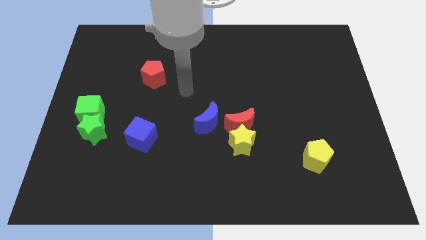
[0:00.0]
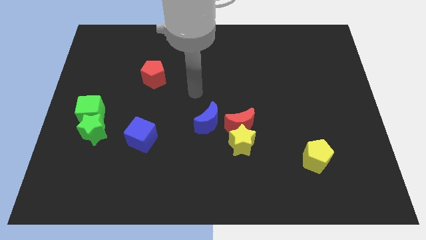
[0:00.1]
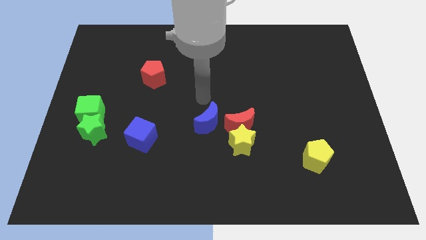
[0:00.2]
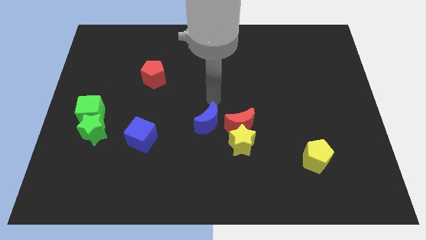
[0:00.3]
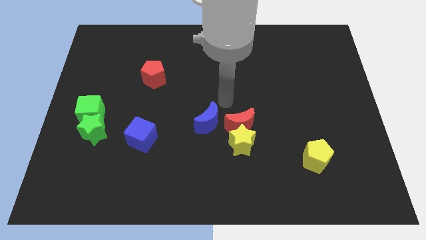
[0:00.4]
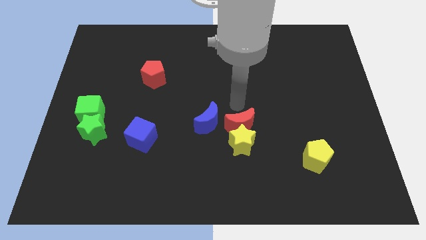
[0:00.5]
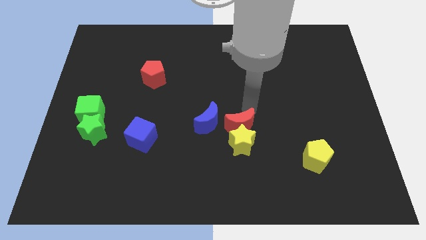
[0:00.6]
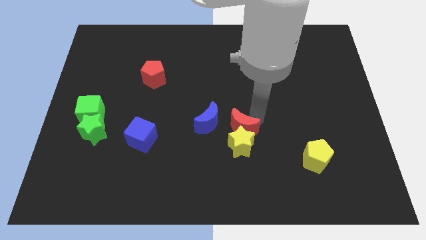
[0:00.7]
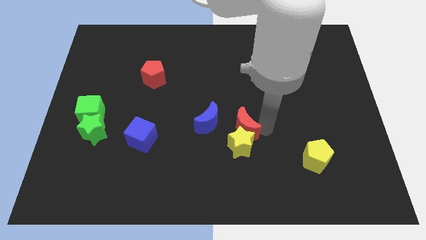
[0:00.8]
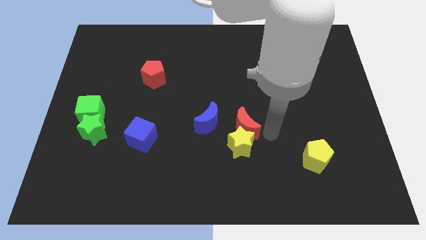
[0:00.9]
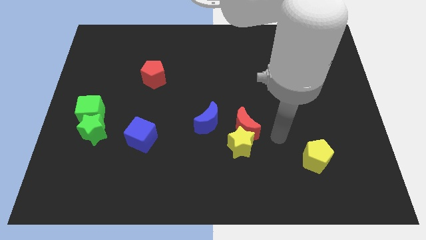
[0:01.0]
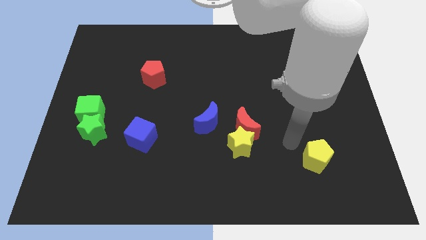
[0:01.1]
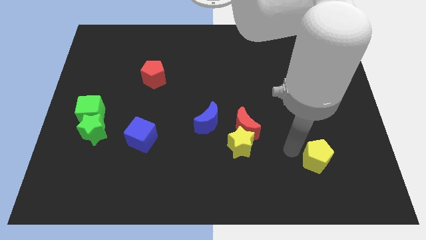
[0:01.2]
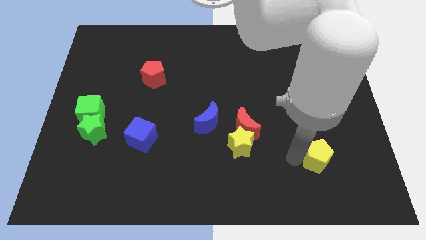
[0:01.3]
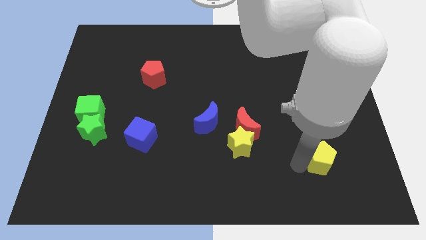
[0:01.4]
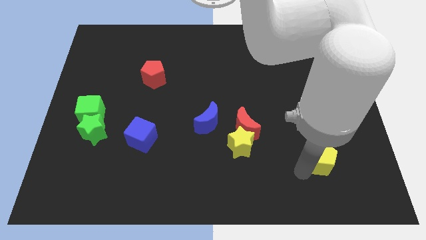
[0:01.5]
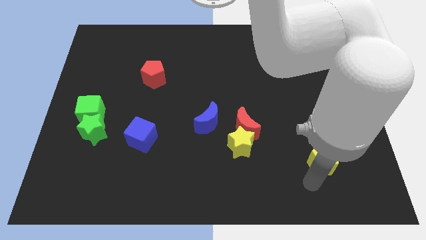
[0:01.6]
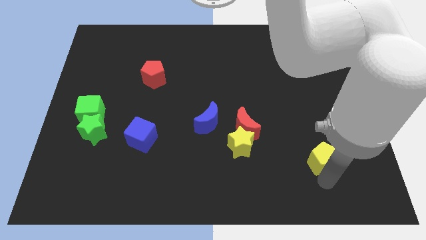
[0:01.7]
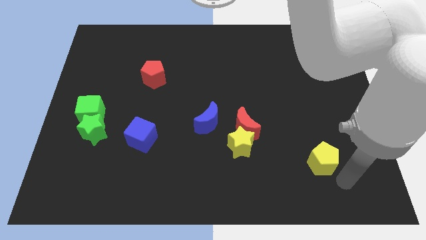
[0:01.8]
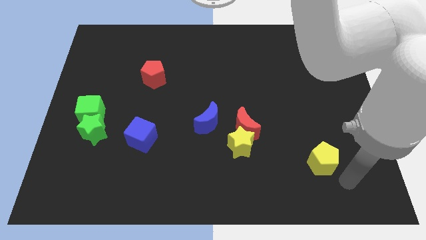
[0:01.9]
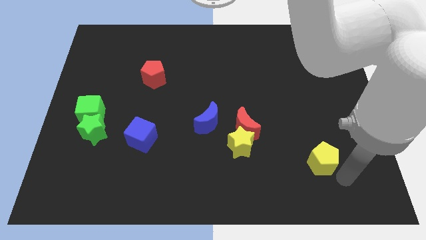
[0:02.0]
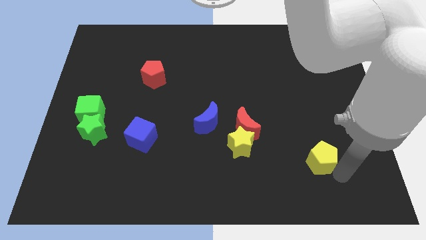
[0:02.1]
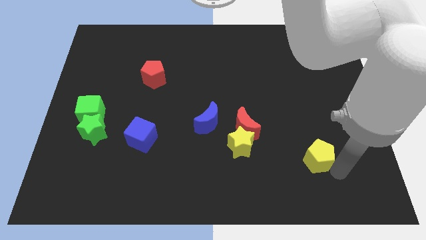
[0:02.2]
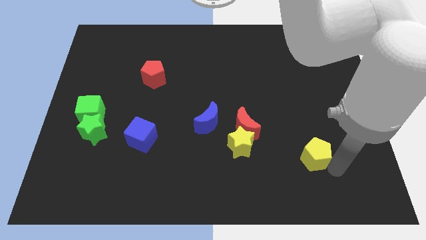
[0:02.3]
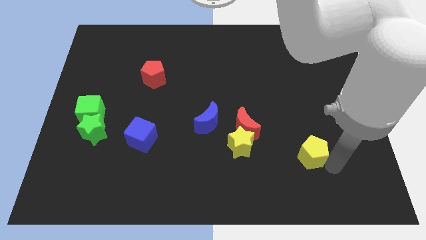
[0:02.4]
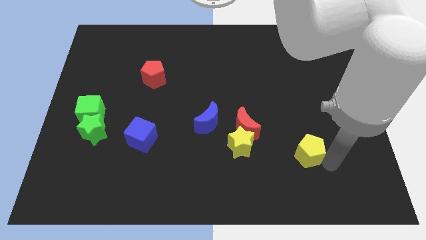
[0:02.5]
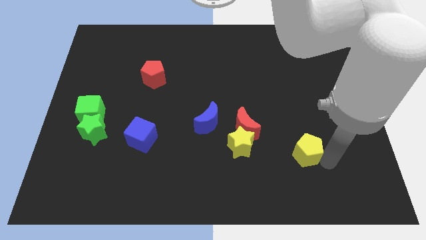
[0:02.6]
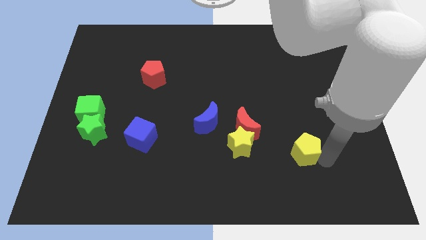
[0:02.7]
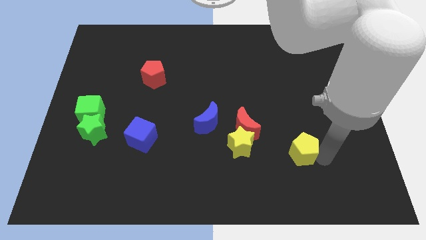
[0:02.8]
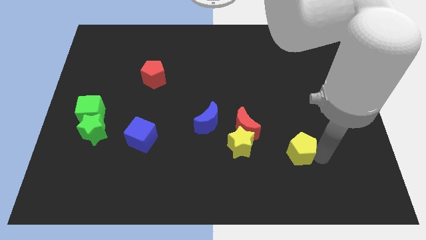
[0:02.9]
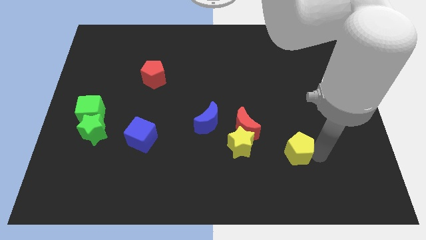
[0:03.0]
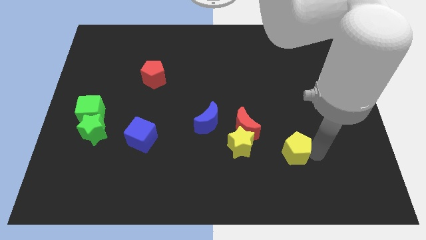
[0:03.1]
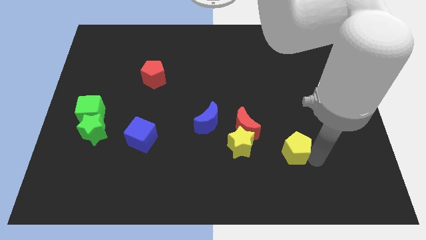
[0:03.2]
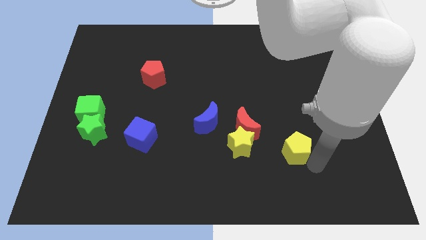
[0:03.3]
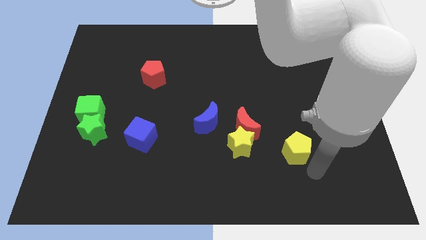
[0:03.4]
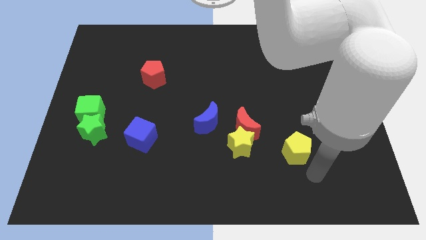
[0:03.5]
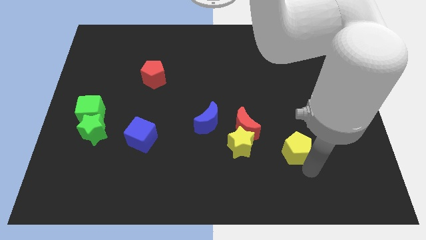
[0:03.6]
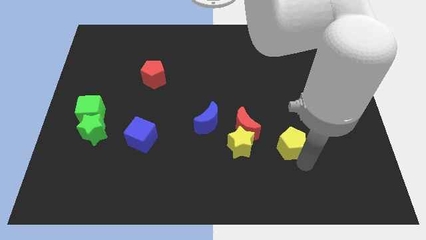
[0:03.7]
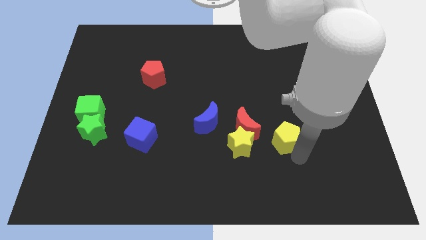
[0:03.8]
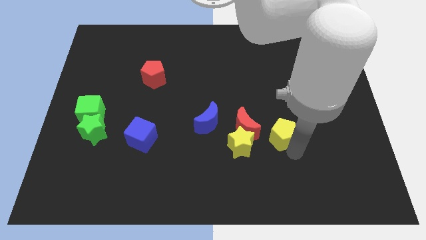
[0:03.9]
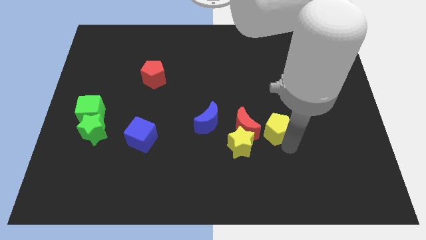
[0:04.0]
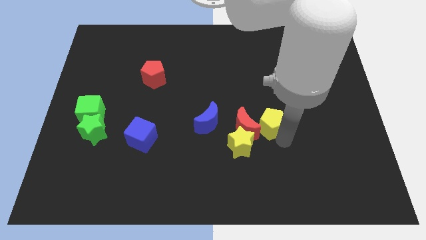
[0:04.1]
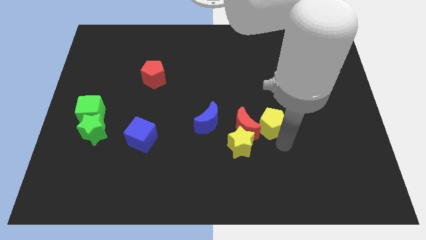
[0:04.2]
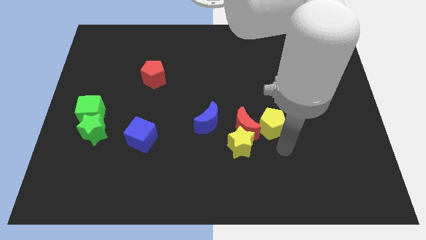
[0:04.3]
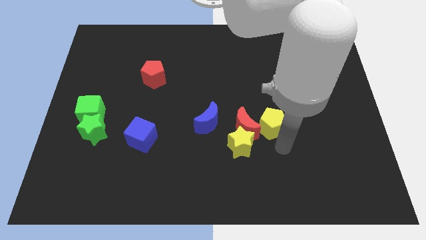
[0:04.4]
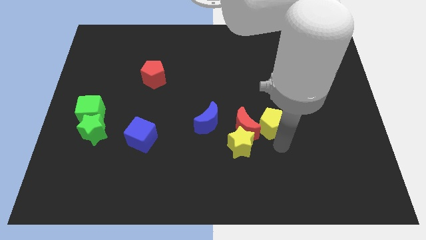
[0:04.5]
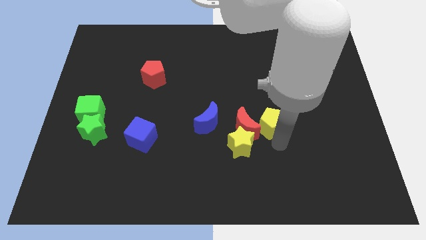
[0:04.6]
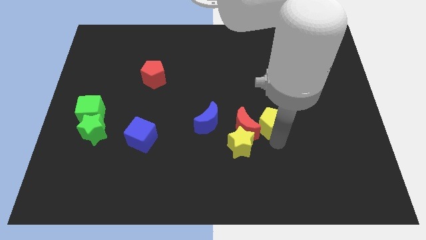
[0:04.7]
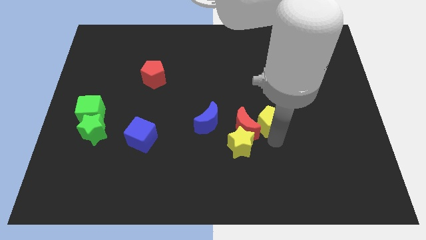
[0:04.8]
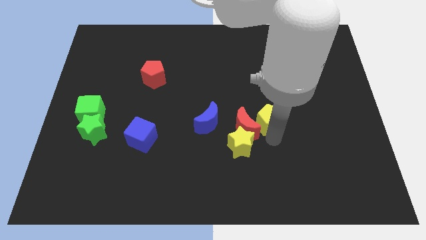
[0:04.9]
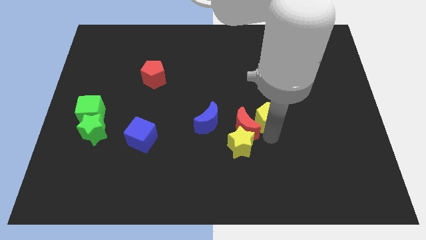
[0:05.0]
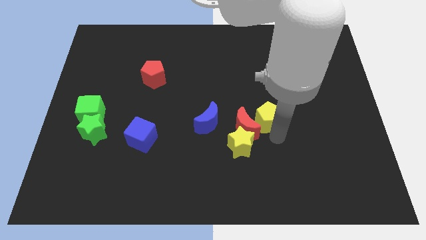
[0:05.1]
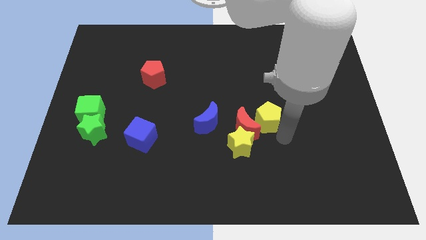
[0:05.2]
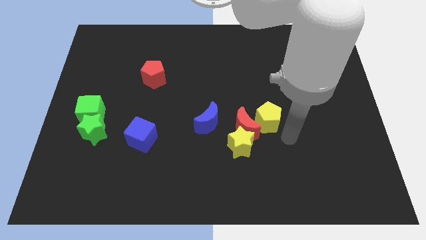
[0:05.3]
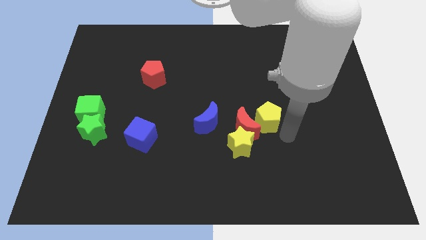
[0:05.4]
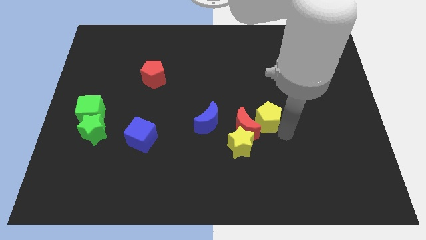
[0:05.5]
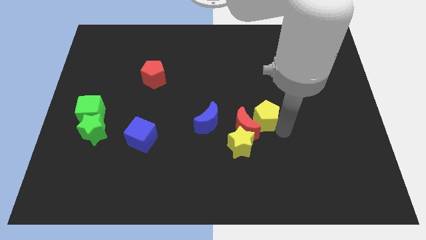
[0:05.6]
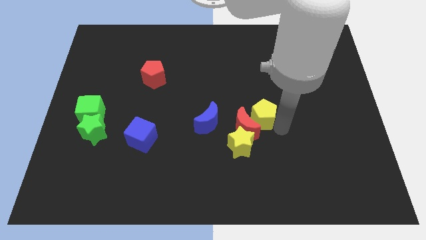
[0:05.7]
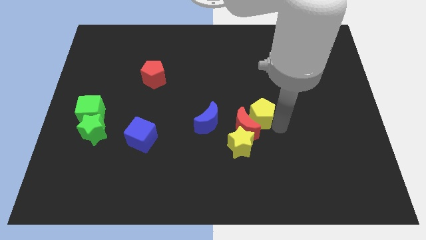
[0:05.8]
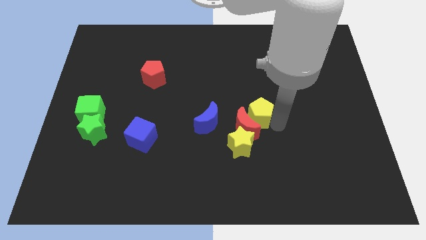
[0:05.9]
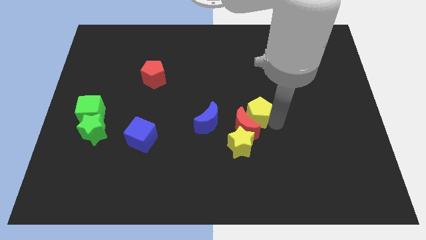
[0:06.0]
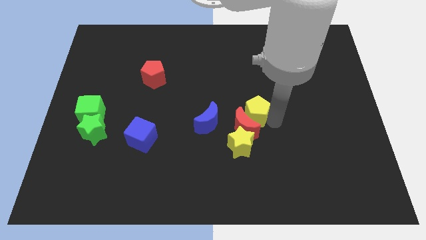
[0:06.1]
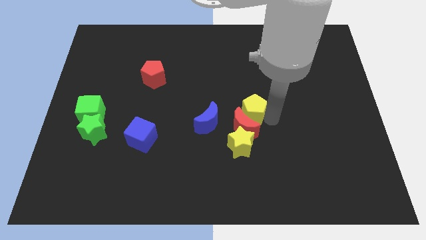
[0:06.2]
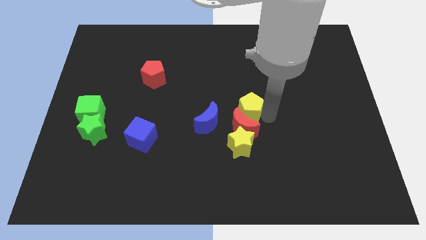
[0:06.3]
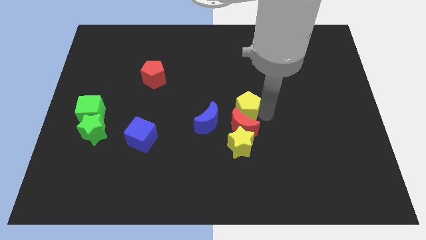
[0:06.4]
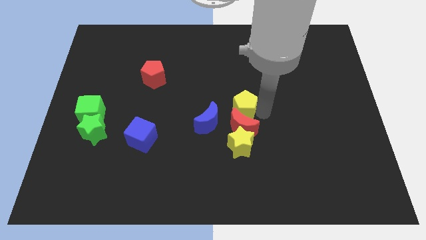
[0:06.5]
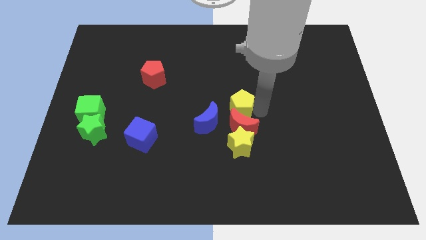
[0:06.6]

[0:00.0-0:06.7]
move the yellow pentagon diagonally up and left

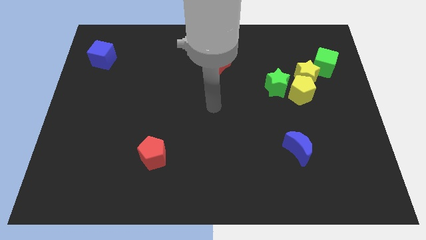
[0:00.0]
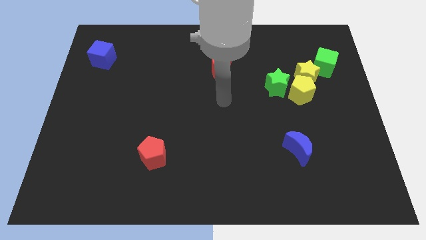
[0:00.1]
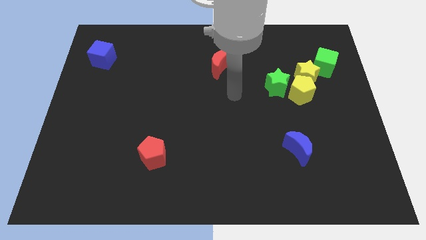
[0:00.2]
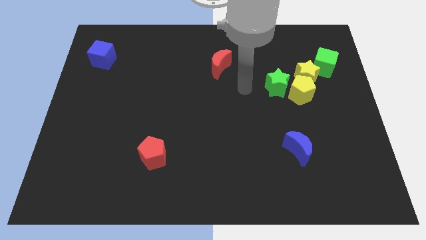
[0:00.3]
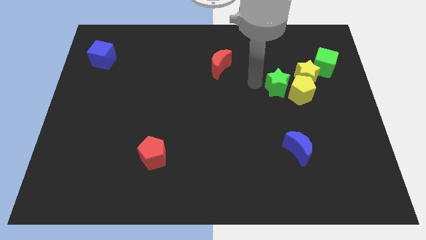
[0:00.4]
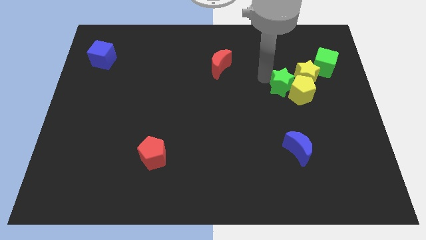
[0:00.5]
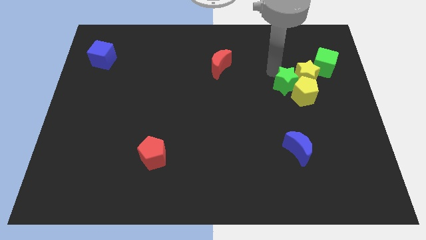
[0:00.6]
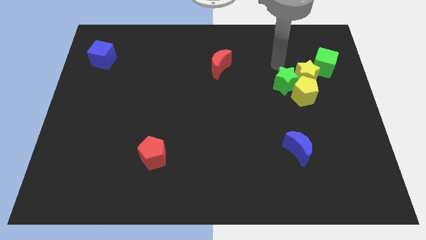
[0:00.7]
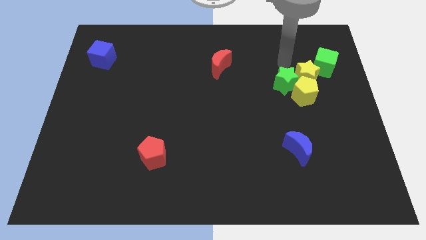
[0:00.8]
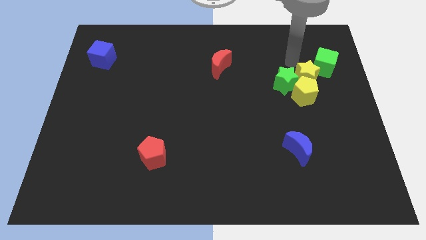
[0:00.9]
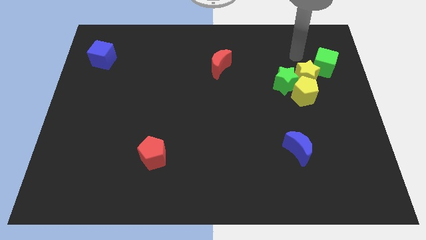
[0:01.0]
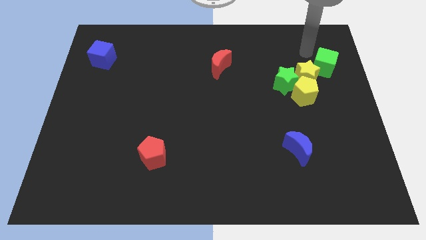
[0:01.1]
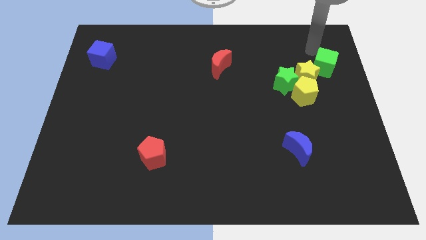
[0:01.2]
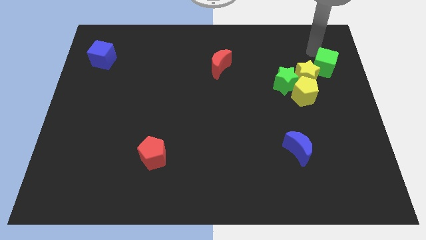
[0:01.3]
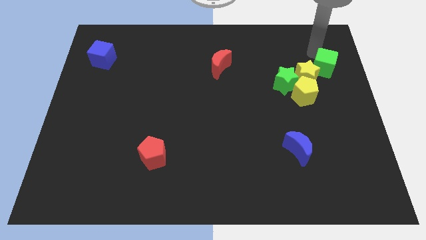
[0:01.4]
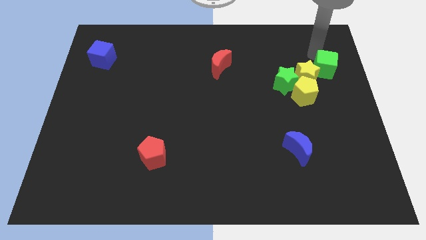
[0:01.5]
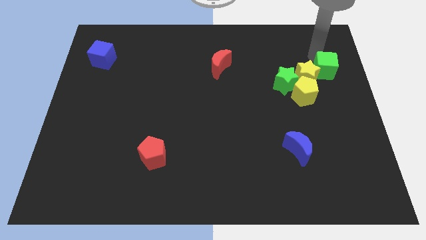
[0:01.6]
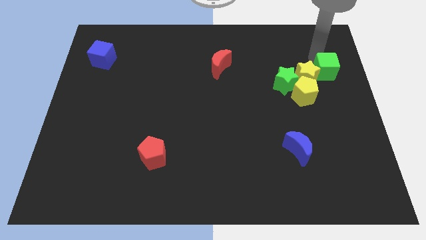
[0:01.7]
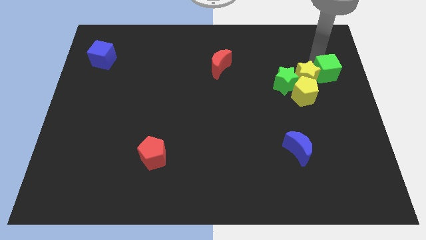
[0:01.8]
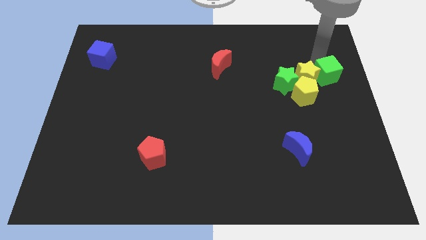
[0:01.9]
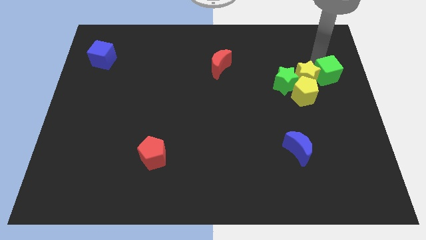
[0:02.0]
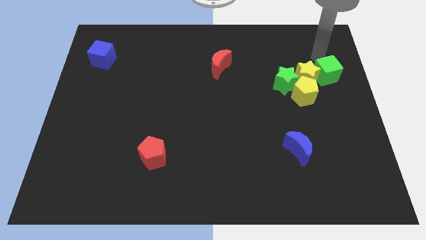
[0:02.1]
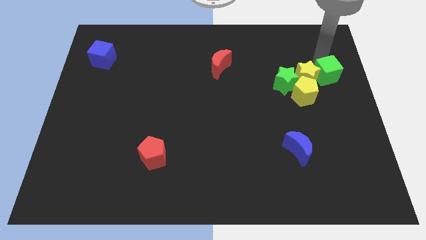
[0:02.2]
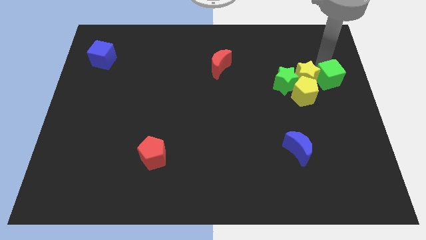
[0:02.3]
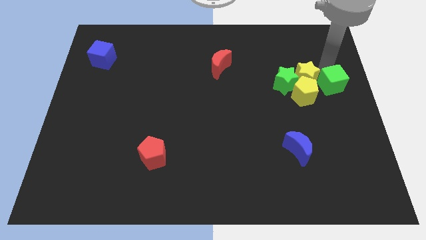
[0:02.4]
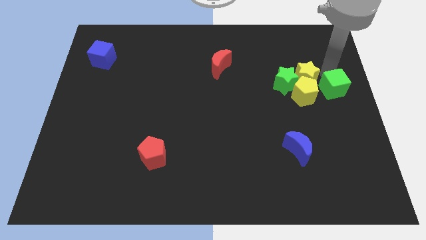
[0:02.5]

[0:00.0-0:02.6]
move the green cube downwards slightly
